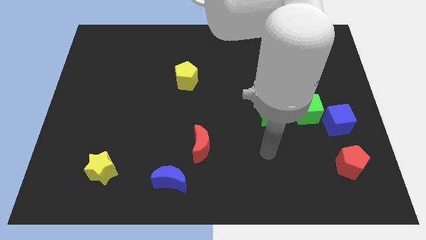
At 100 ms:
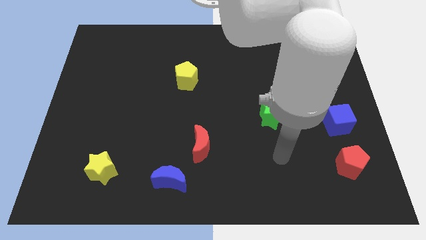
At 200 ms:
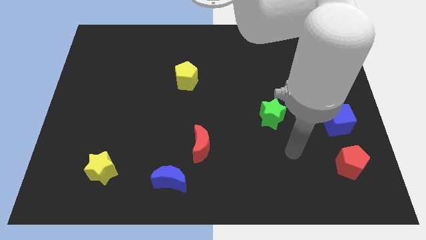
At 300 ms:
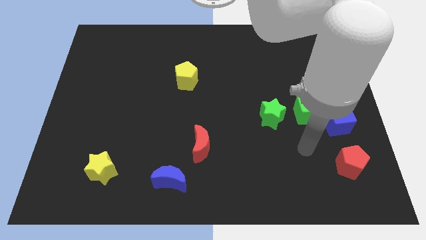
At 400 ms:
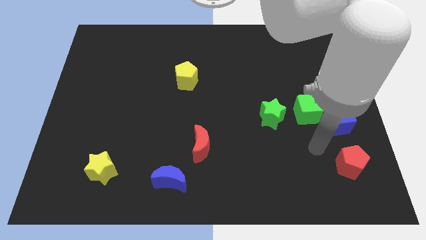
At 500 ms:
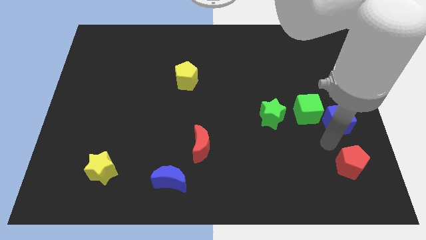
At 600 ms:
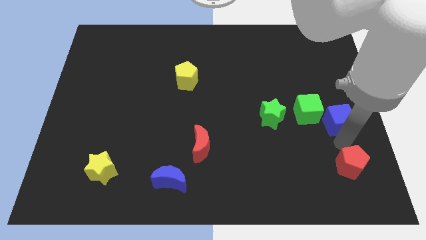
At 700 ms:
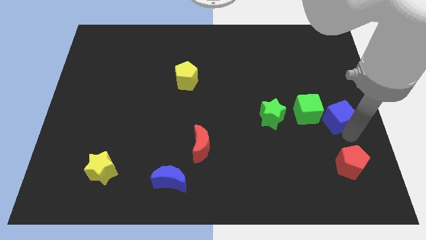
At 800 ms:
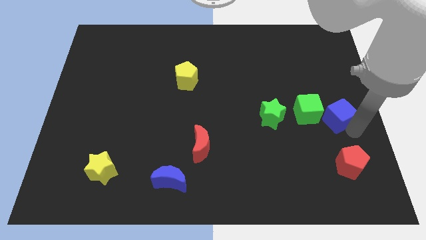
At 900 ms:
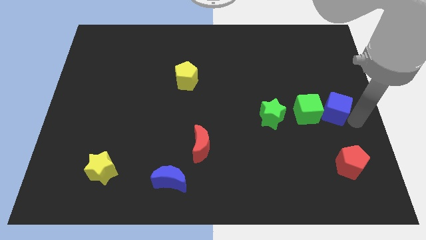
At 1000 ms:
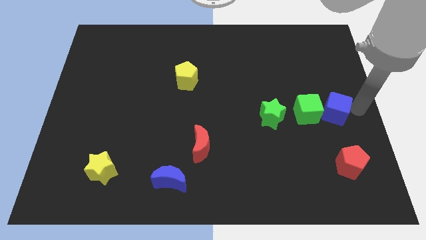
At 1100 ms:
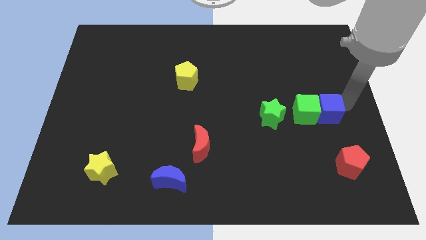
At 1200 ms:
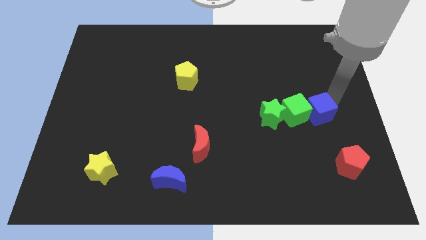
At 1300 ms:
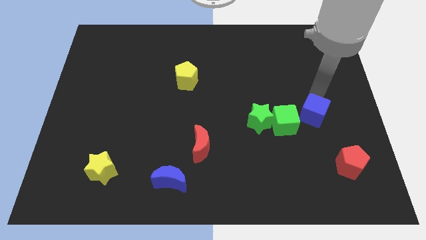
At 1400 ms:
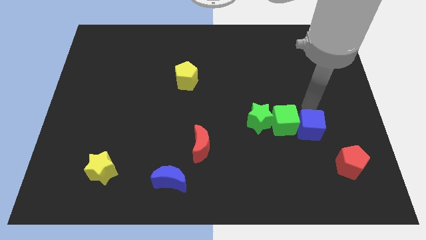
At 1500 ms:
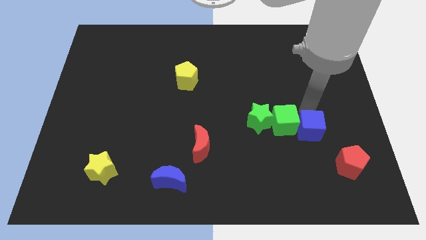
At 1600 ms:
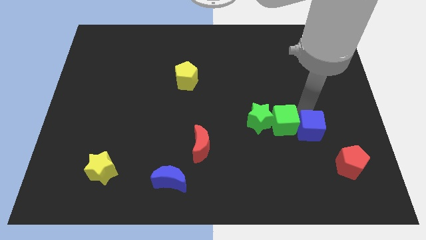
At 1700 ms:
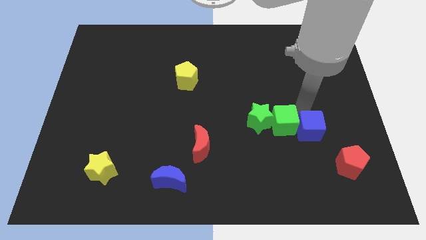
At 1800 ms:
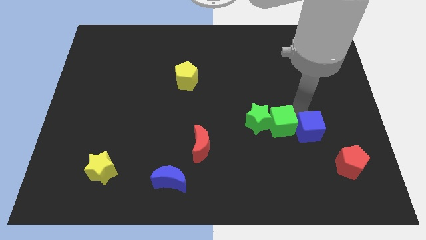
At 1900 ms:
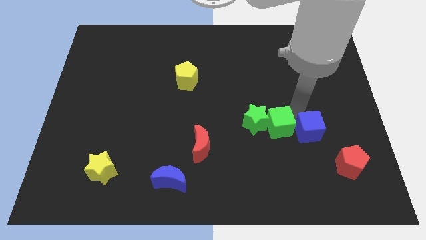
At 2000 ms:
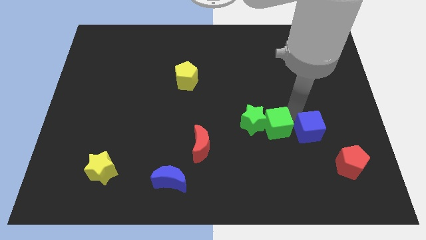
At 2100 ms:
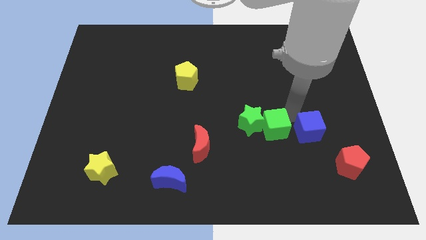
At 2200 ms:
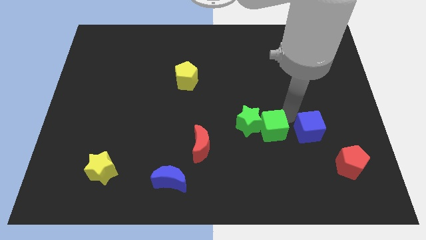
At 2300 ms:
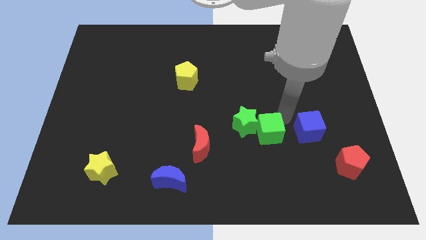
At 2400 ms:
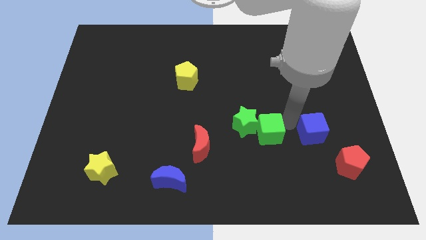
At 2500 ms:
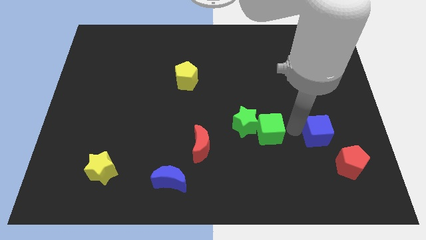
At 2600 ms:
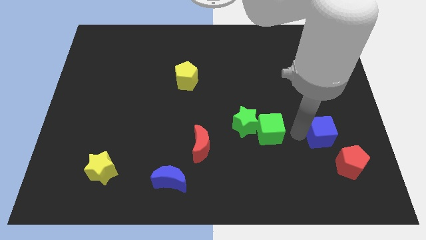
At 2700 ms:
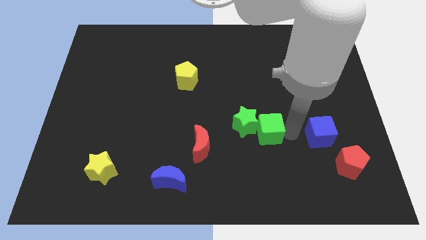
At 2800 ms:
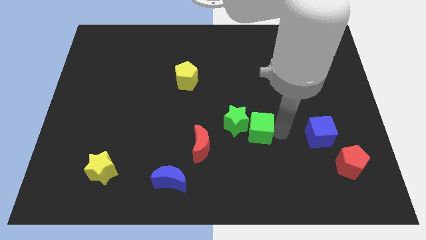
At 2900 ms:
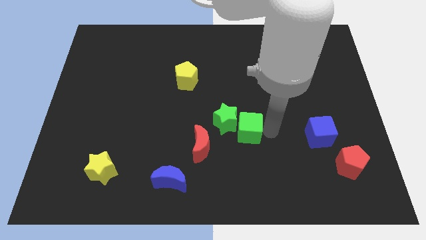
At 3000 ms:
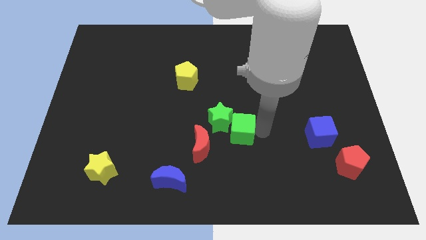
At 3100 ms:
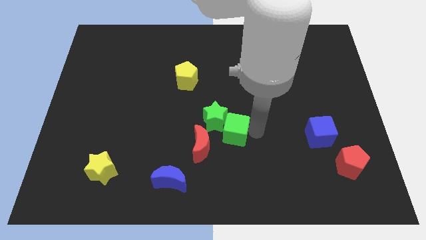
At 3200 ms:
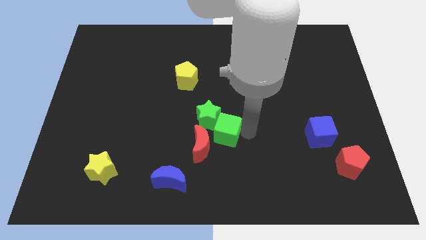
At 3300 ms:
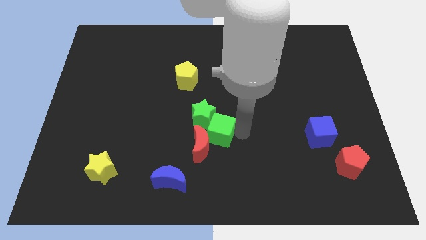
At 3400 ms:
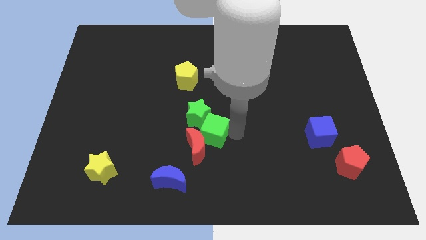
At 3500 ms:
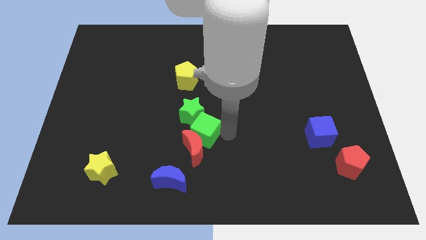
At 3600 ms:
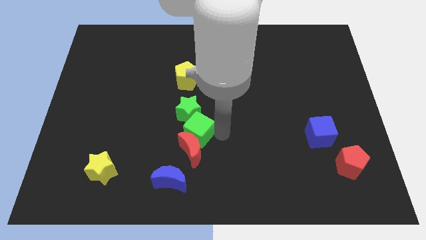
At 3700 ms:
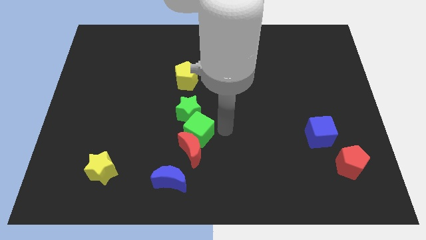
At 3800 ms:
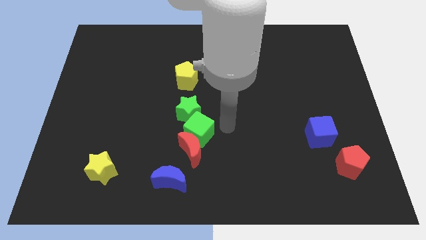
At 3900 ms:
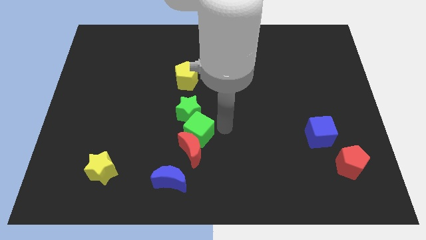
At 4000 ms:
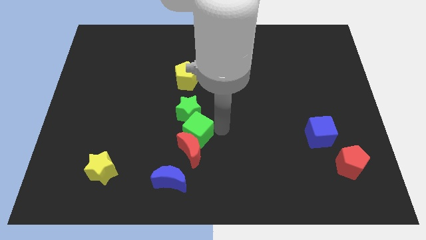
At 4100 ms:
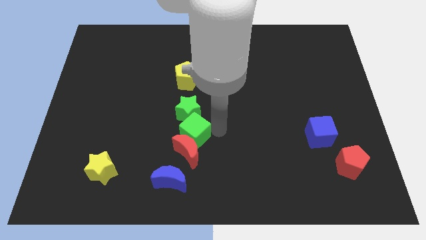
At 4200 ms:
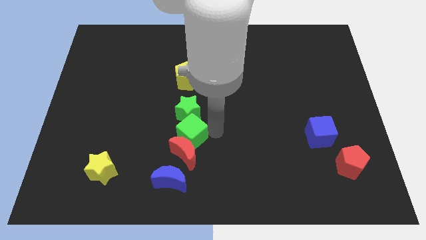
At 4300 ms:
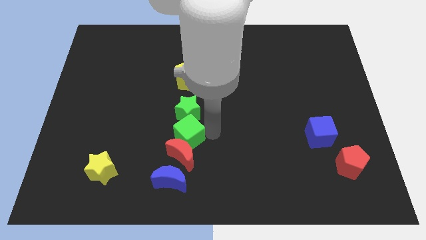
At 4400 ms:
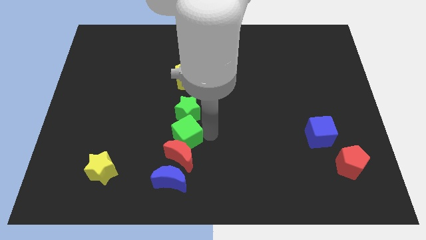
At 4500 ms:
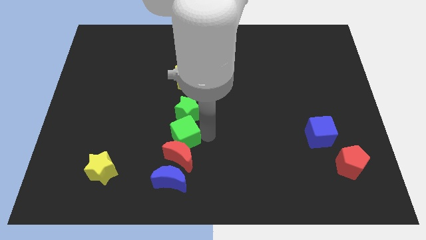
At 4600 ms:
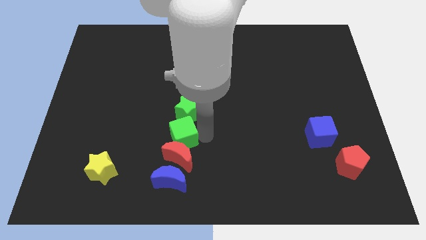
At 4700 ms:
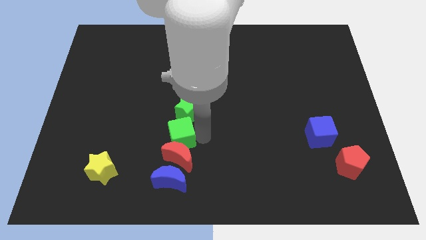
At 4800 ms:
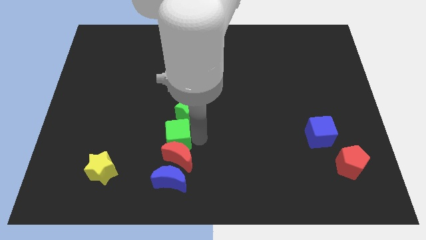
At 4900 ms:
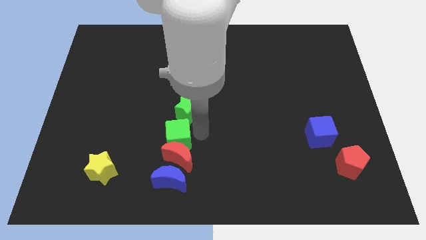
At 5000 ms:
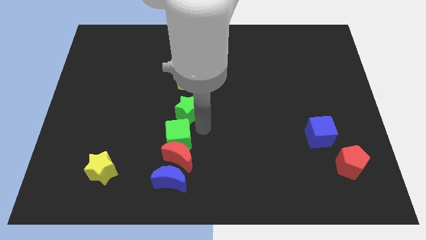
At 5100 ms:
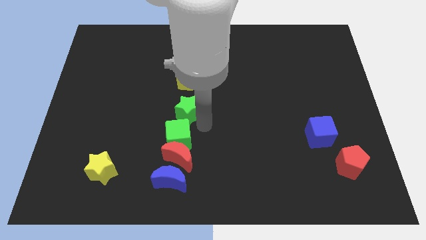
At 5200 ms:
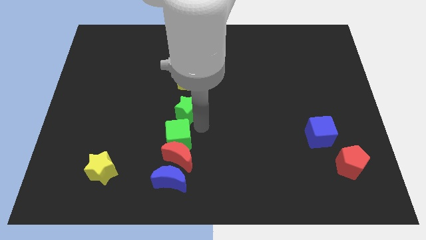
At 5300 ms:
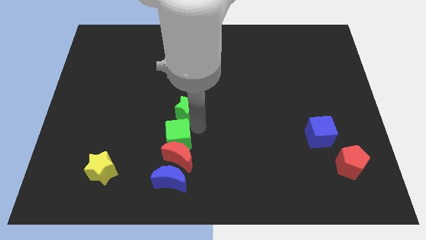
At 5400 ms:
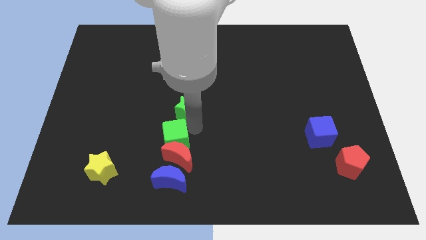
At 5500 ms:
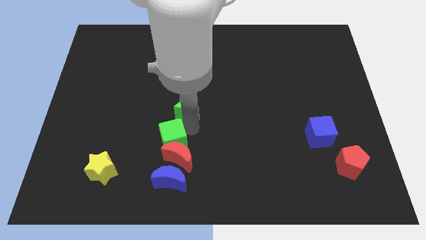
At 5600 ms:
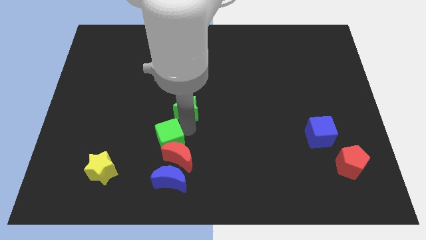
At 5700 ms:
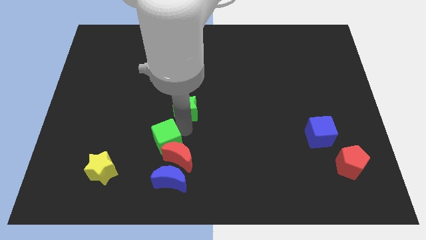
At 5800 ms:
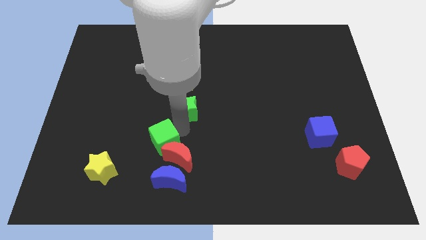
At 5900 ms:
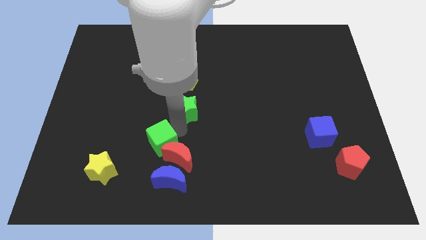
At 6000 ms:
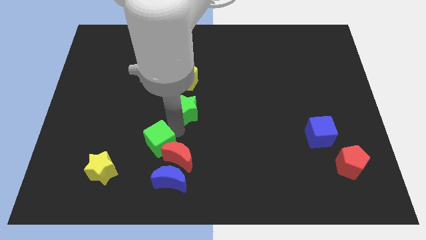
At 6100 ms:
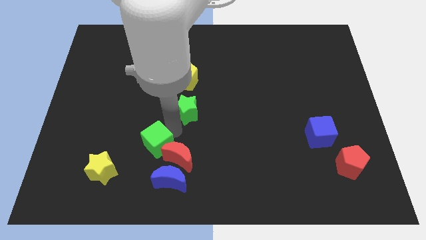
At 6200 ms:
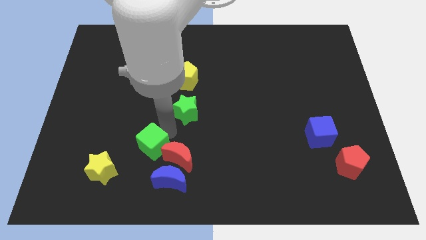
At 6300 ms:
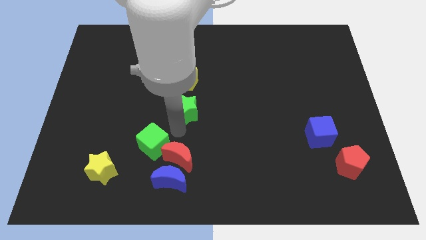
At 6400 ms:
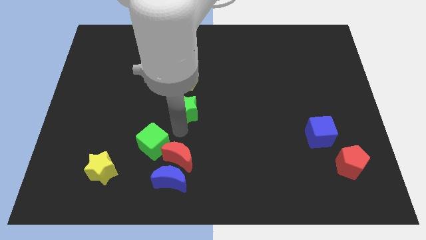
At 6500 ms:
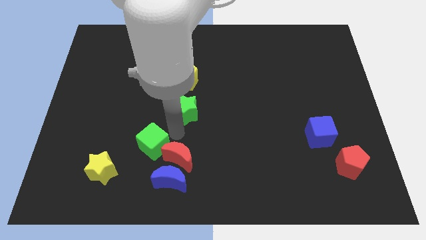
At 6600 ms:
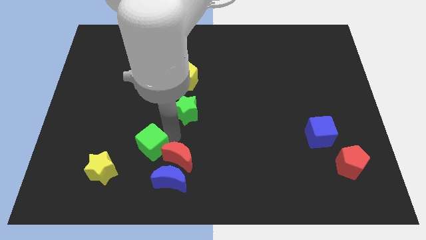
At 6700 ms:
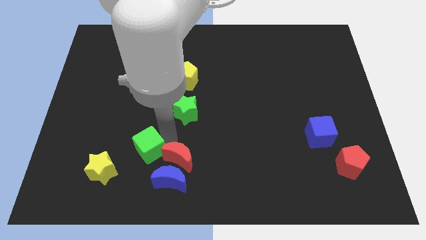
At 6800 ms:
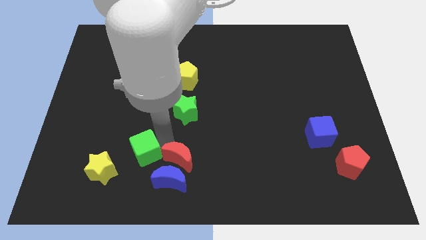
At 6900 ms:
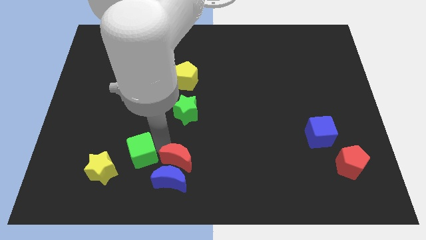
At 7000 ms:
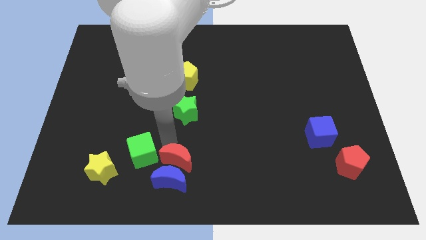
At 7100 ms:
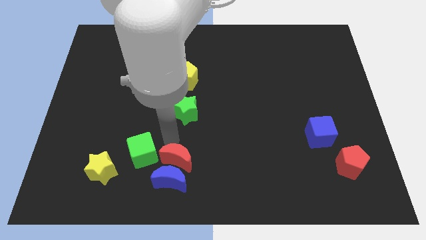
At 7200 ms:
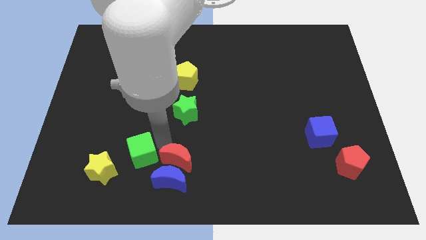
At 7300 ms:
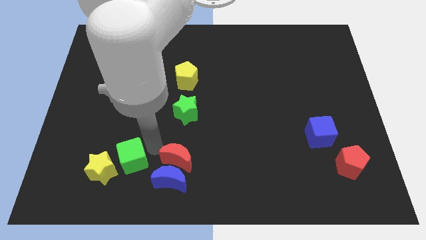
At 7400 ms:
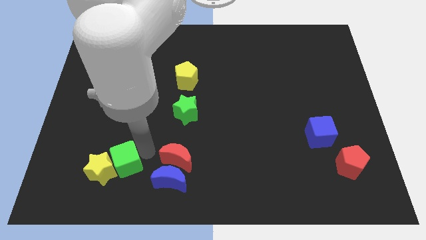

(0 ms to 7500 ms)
push the green cube close to the yellow star
